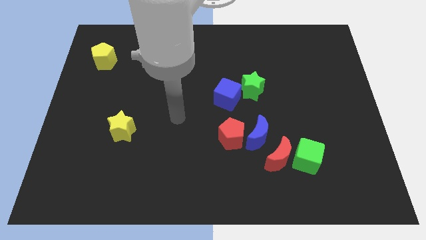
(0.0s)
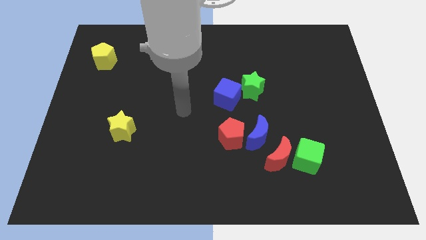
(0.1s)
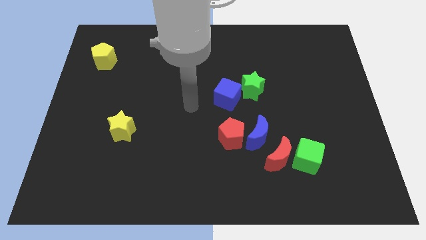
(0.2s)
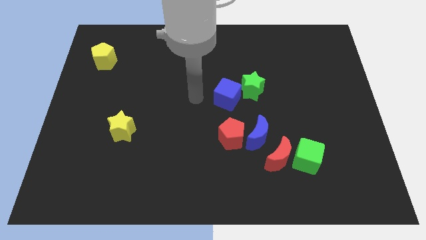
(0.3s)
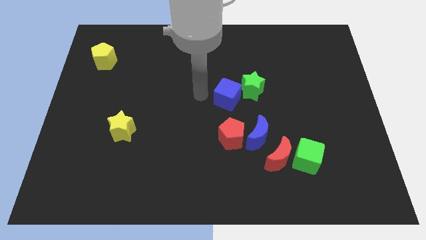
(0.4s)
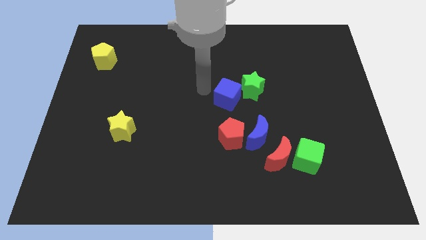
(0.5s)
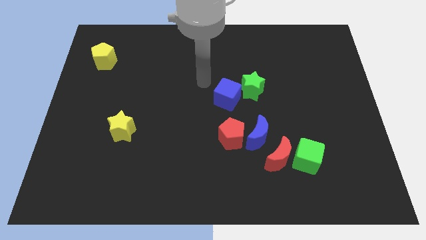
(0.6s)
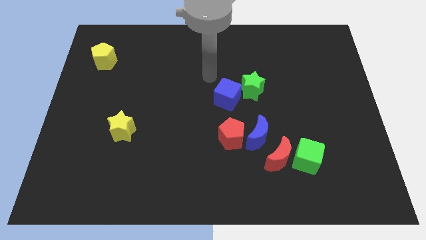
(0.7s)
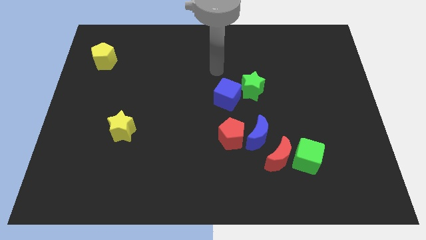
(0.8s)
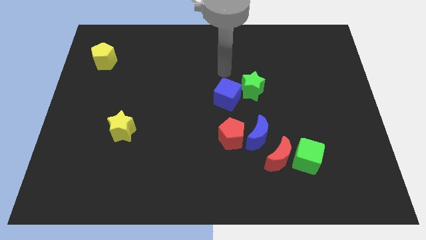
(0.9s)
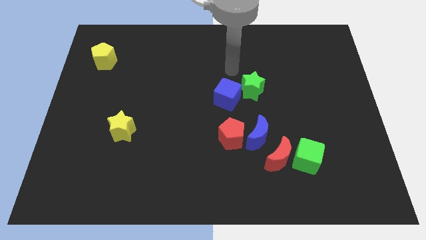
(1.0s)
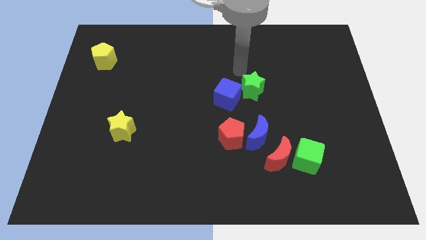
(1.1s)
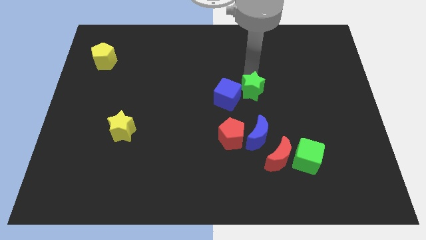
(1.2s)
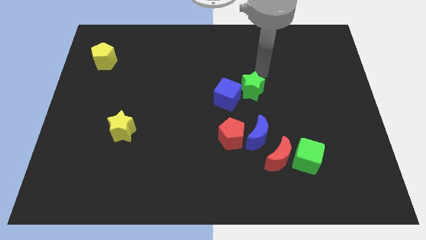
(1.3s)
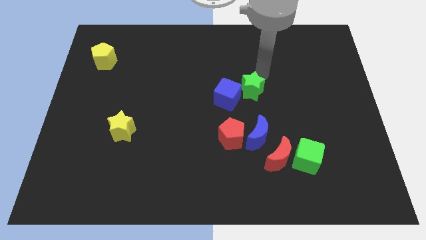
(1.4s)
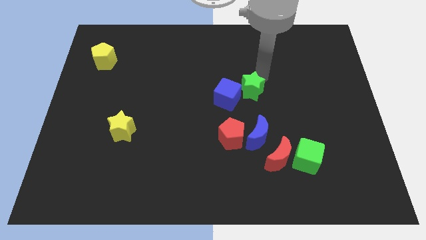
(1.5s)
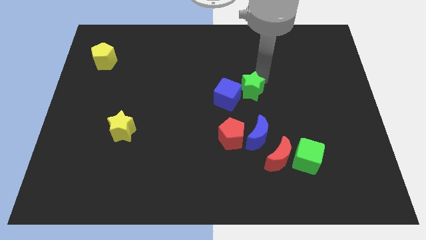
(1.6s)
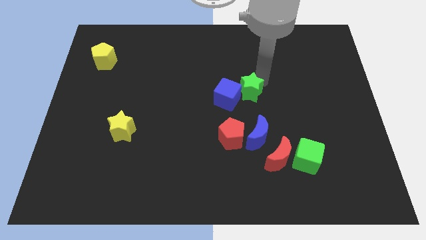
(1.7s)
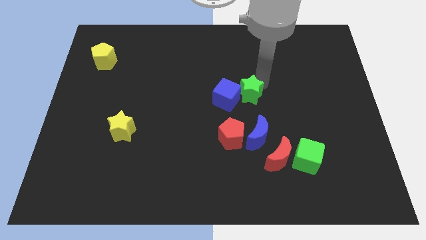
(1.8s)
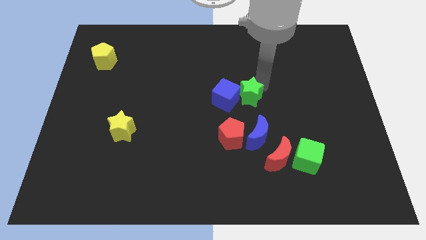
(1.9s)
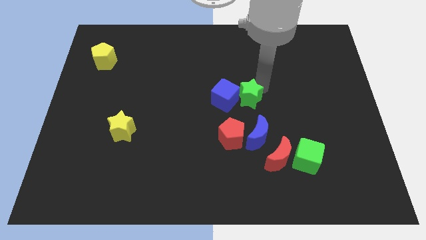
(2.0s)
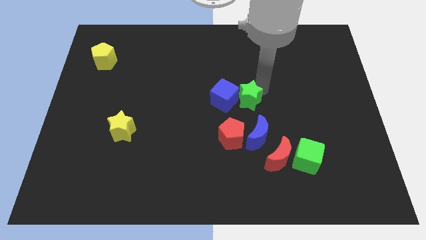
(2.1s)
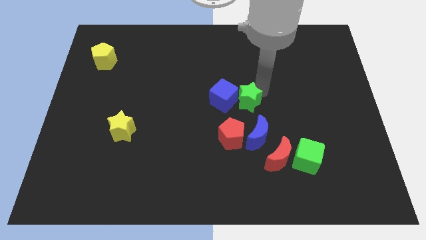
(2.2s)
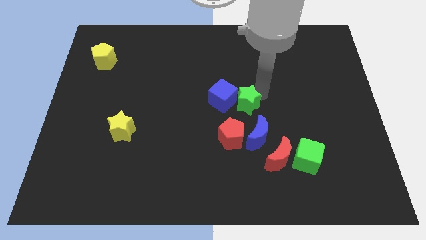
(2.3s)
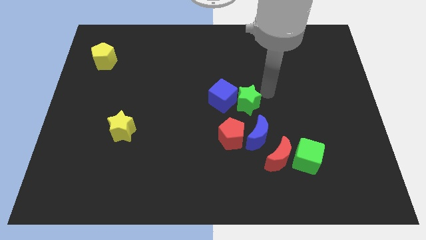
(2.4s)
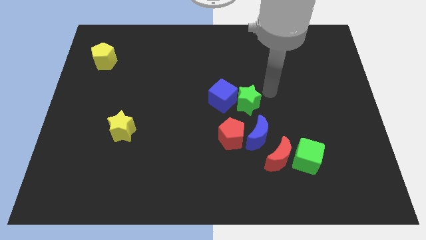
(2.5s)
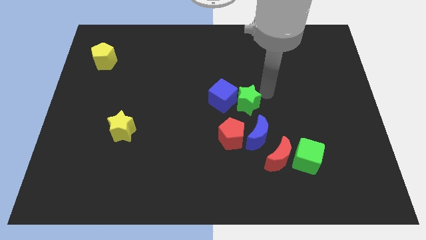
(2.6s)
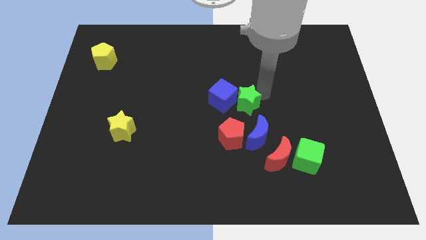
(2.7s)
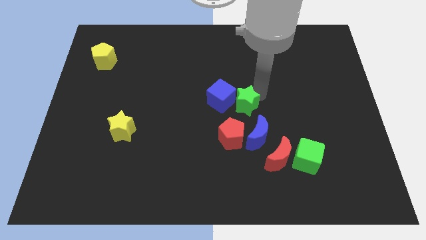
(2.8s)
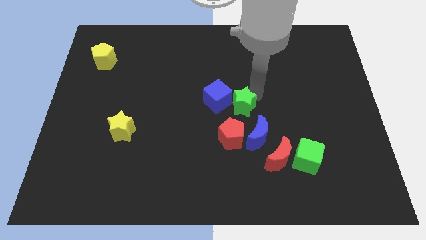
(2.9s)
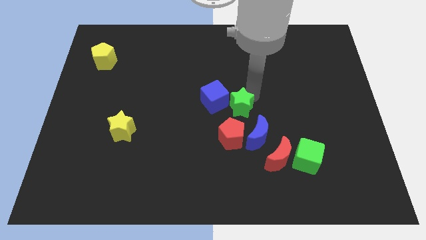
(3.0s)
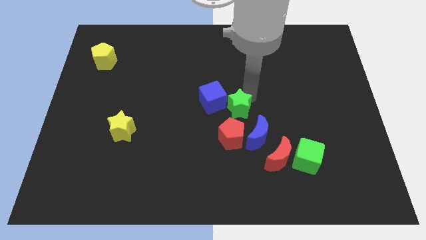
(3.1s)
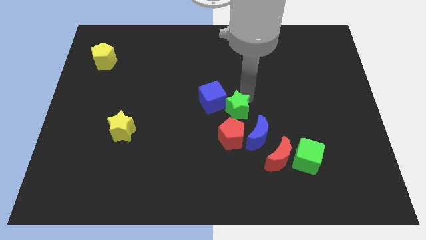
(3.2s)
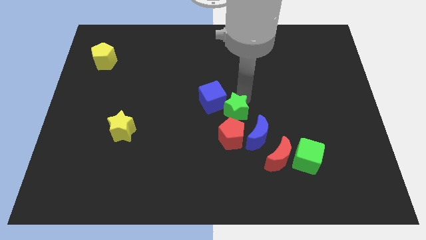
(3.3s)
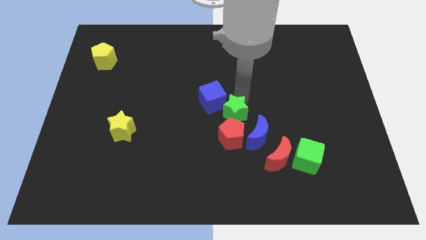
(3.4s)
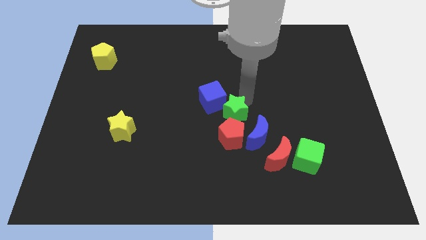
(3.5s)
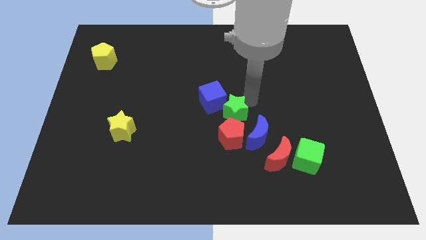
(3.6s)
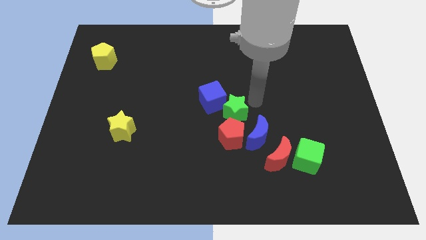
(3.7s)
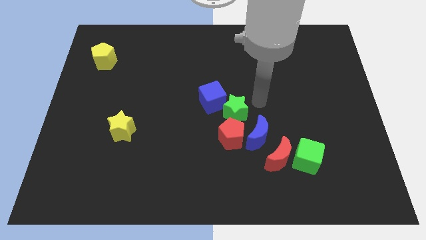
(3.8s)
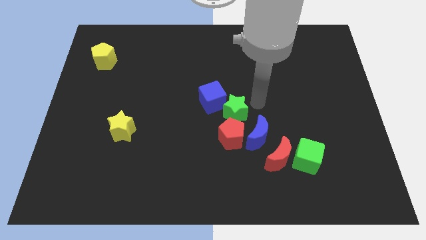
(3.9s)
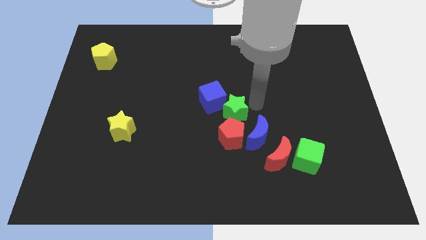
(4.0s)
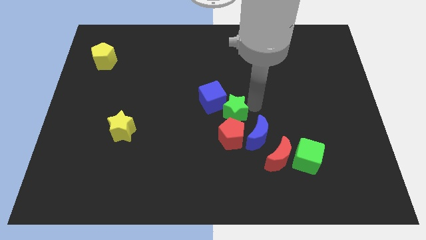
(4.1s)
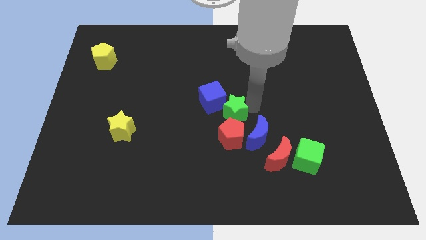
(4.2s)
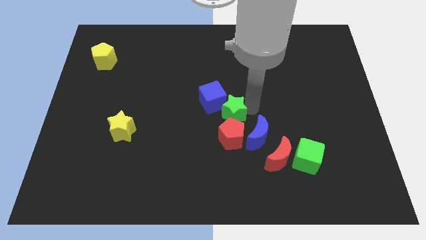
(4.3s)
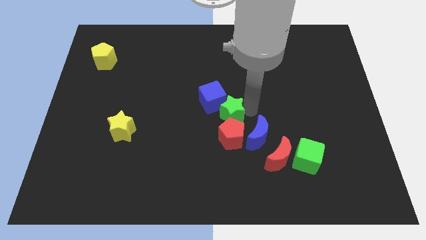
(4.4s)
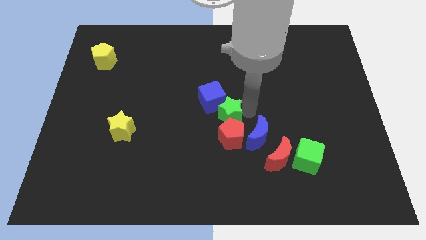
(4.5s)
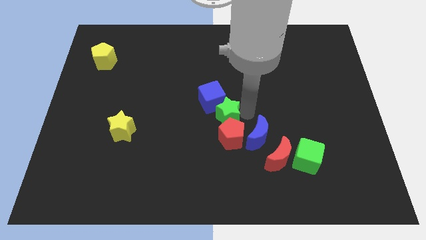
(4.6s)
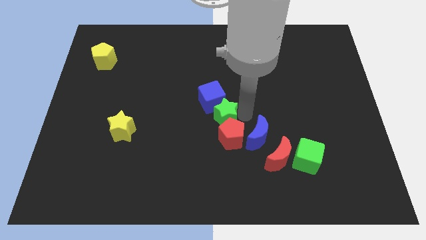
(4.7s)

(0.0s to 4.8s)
slightly slide the green star down

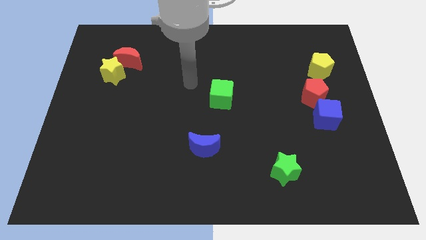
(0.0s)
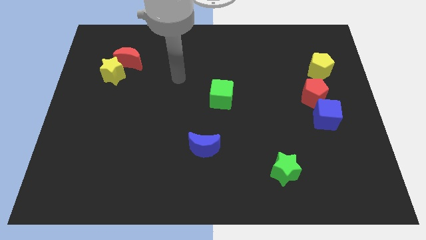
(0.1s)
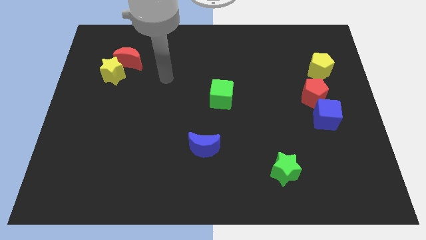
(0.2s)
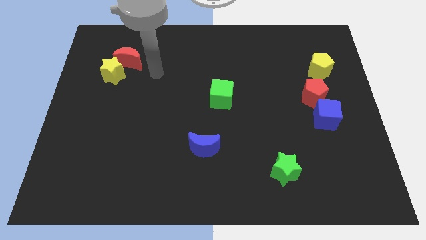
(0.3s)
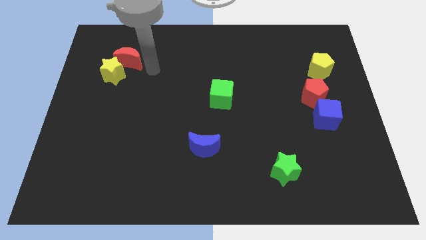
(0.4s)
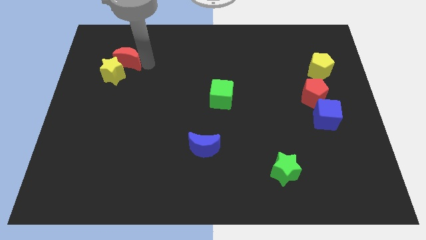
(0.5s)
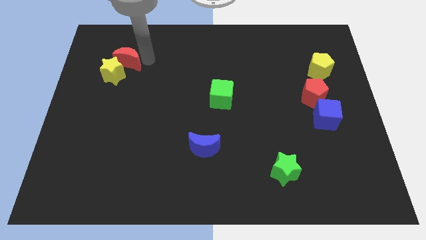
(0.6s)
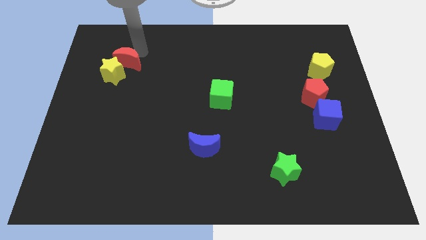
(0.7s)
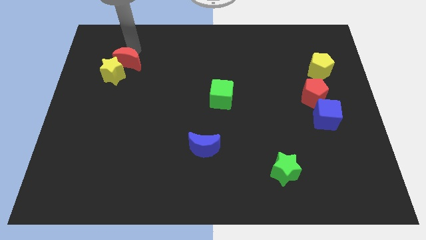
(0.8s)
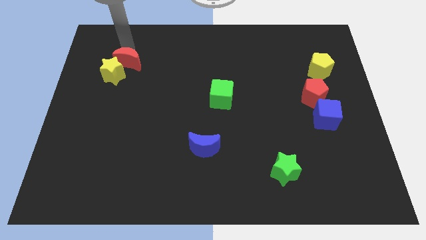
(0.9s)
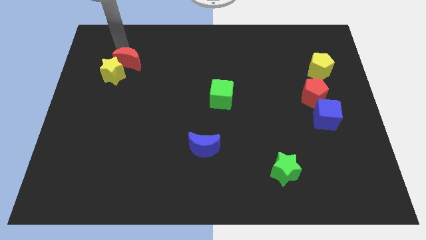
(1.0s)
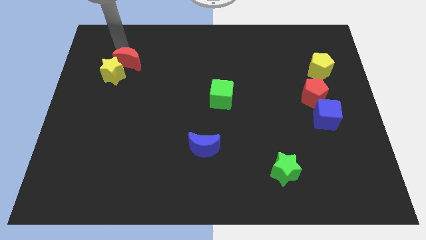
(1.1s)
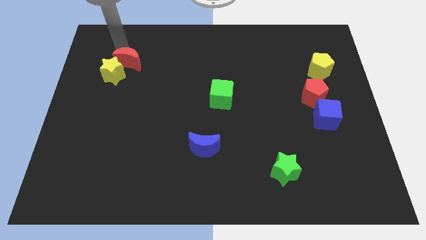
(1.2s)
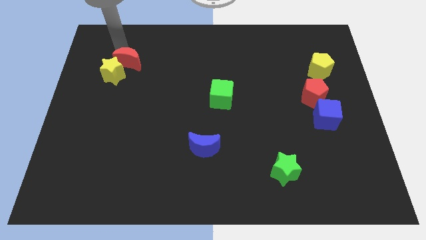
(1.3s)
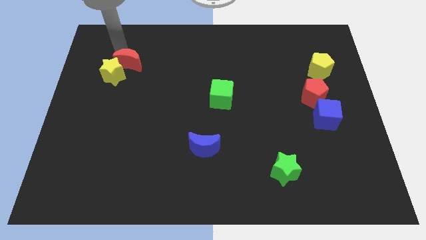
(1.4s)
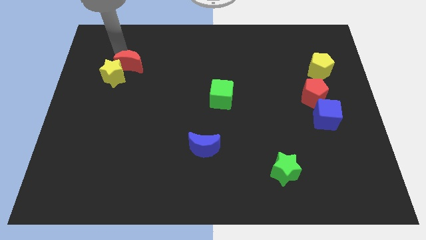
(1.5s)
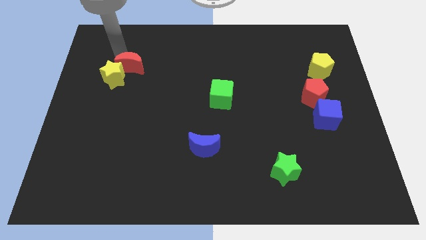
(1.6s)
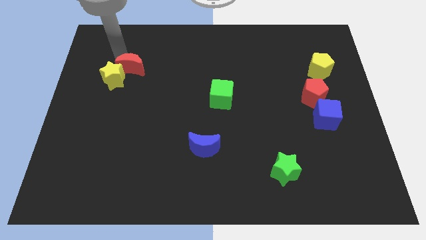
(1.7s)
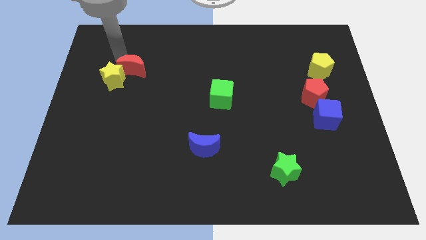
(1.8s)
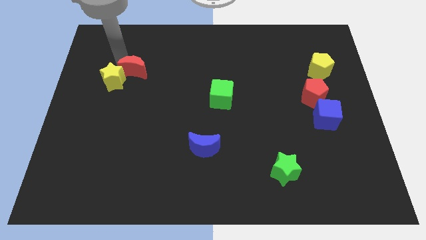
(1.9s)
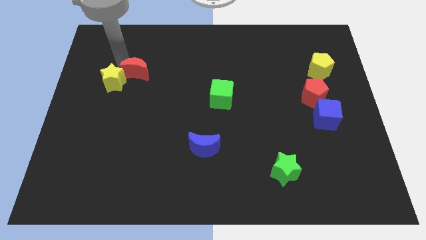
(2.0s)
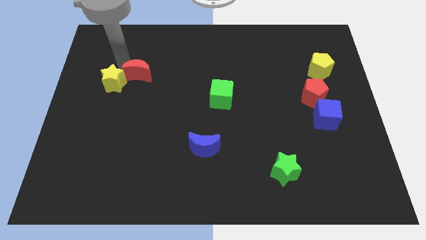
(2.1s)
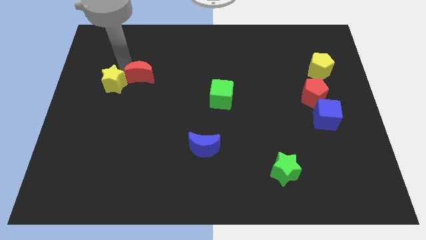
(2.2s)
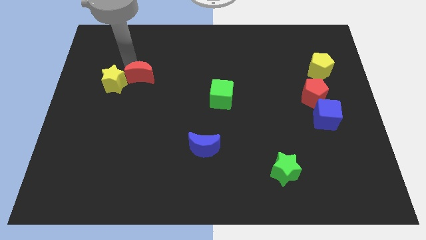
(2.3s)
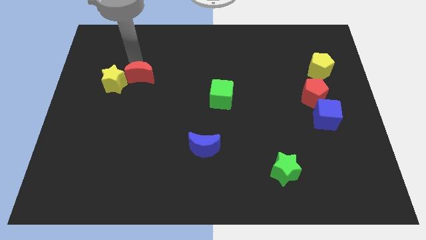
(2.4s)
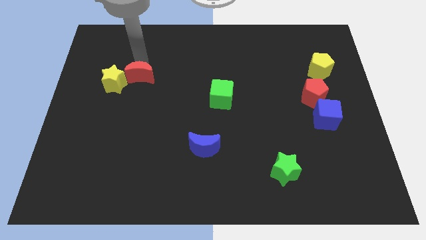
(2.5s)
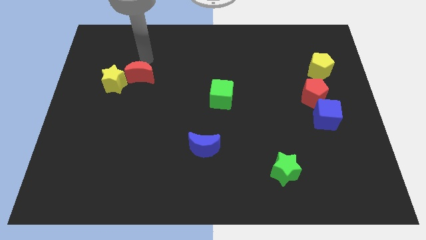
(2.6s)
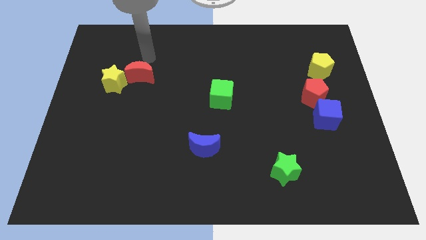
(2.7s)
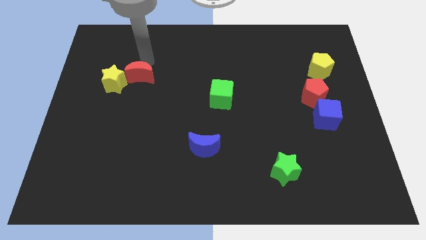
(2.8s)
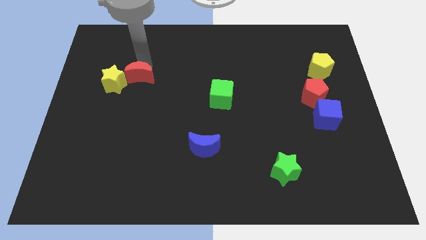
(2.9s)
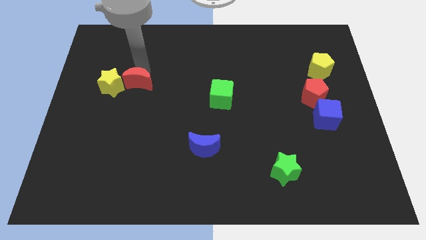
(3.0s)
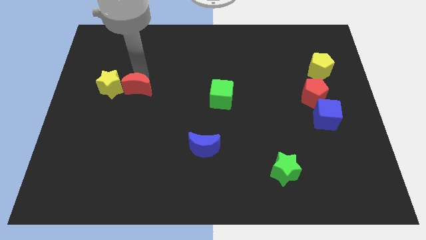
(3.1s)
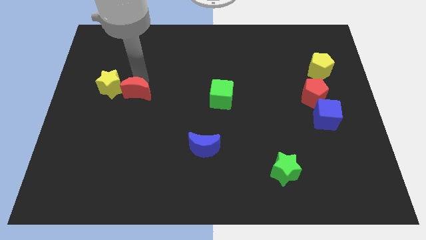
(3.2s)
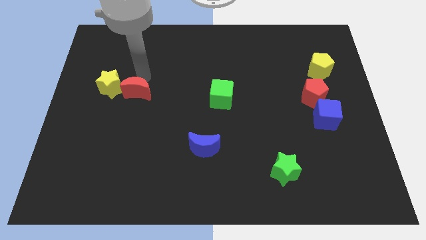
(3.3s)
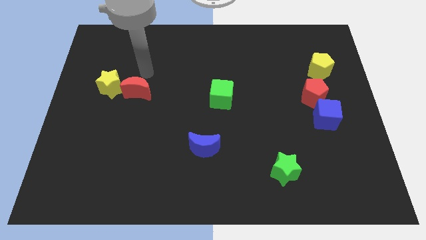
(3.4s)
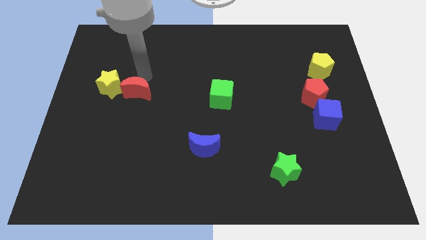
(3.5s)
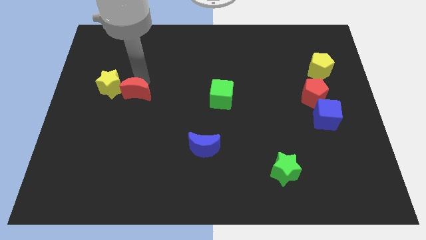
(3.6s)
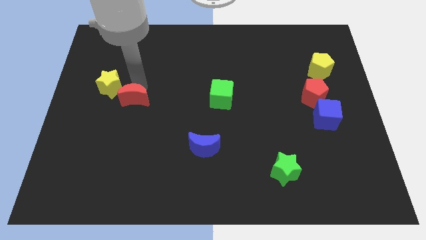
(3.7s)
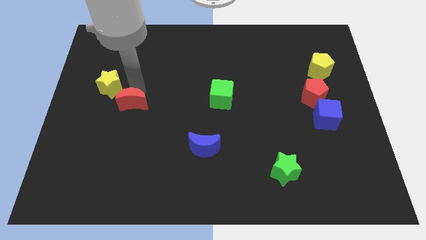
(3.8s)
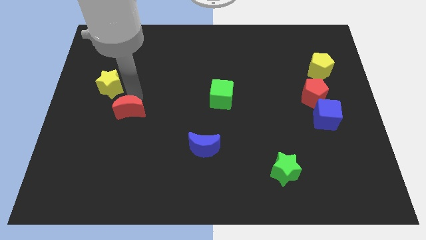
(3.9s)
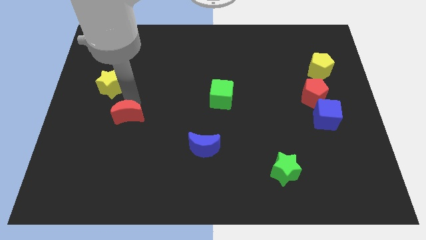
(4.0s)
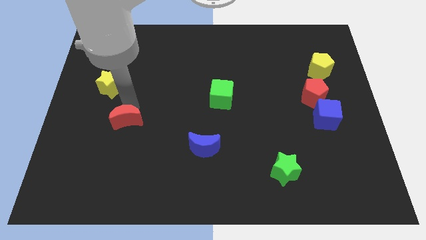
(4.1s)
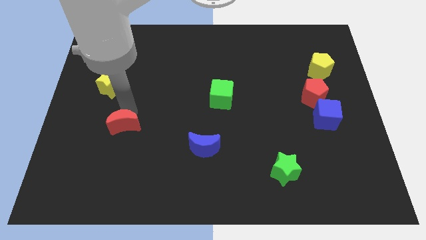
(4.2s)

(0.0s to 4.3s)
slide the red moon down
